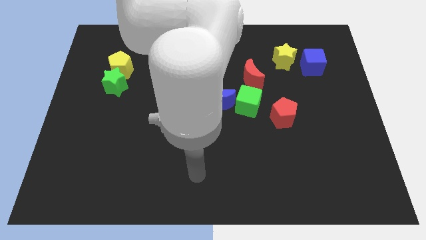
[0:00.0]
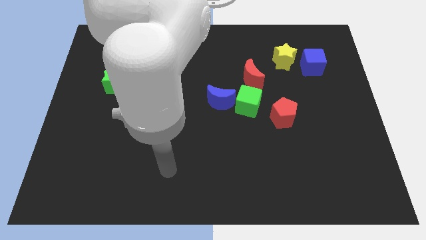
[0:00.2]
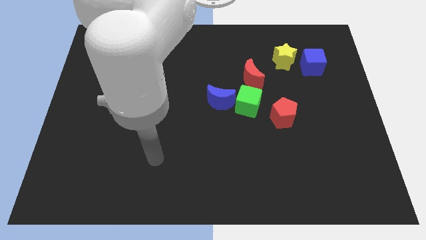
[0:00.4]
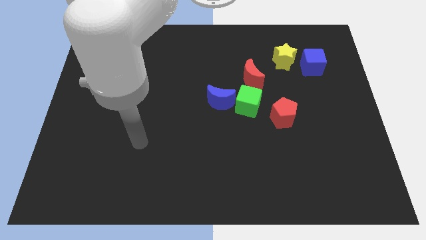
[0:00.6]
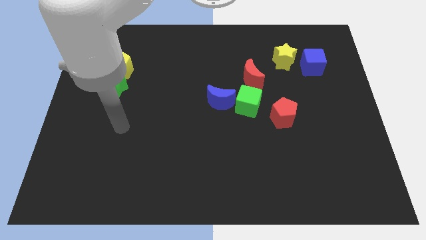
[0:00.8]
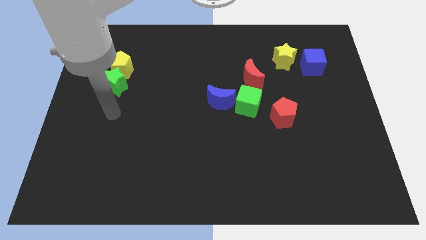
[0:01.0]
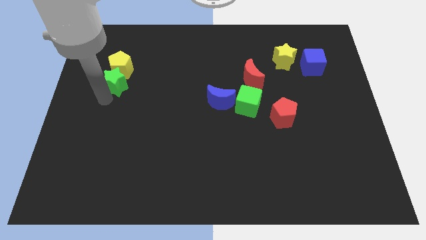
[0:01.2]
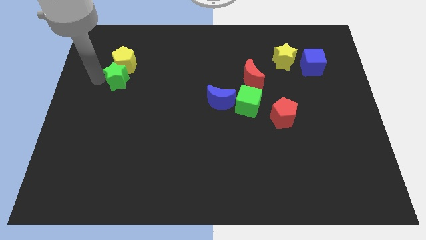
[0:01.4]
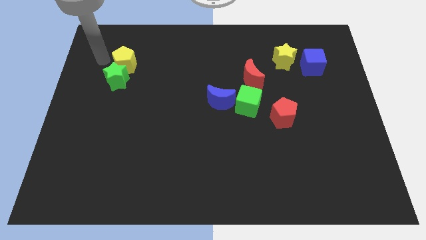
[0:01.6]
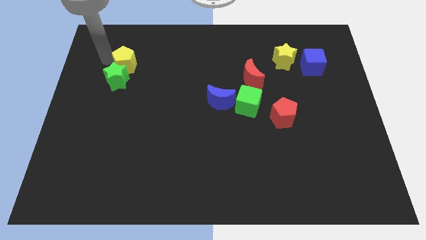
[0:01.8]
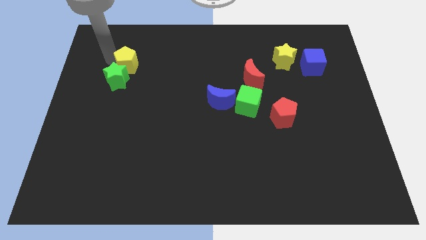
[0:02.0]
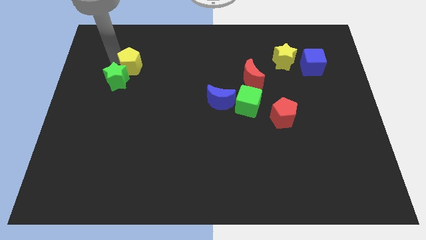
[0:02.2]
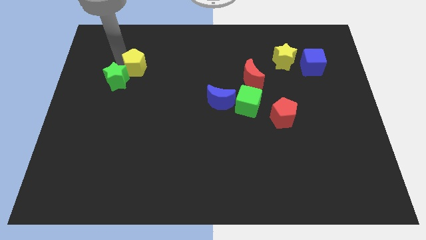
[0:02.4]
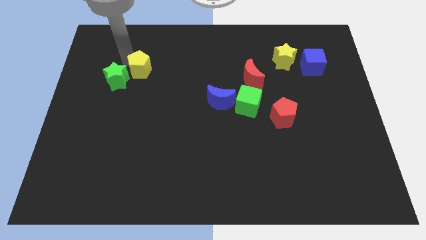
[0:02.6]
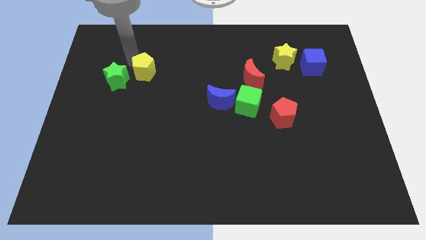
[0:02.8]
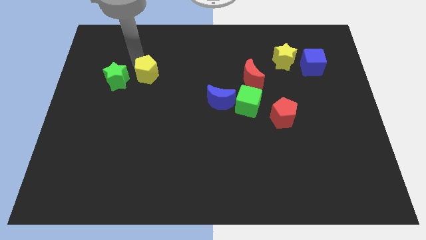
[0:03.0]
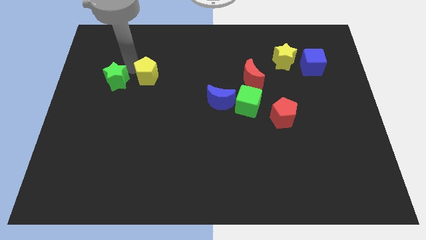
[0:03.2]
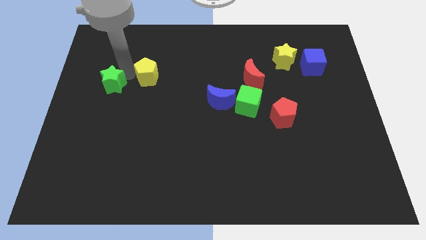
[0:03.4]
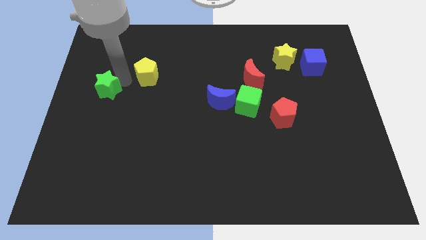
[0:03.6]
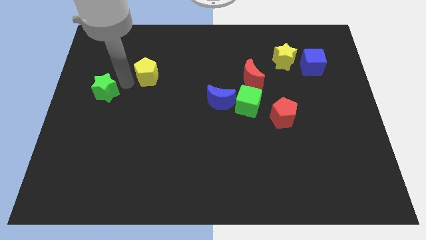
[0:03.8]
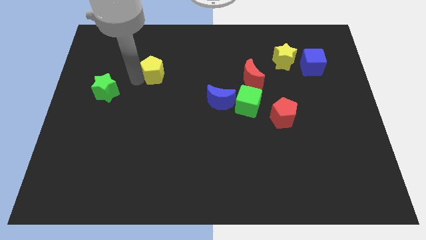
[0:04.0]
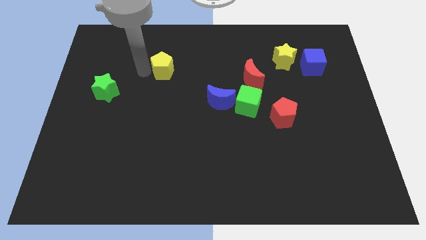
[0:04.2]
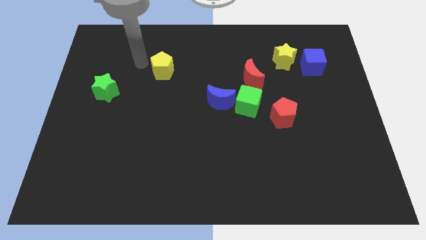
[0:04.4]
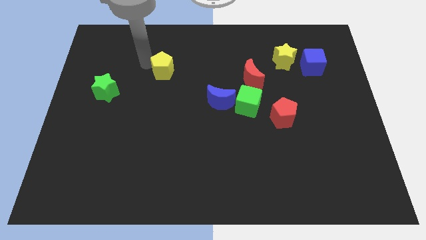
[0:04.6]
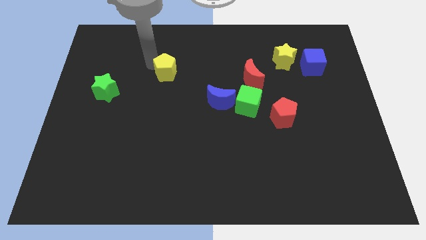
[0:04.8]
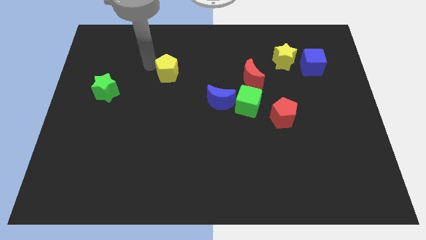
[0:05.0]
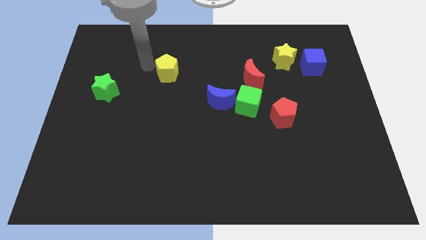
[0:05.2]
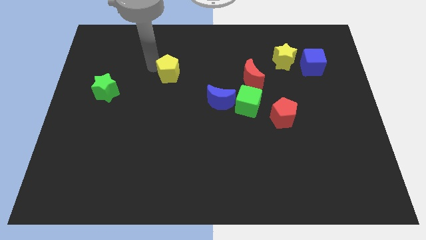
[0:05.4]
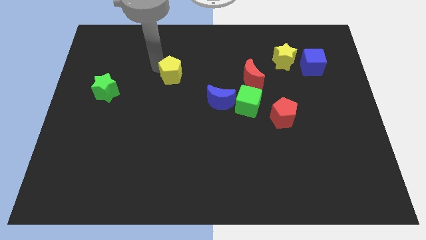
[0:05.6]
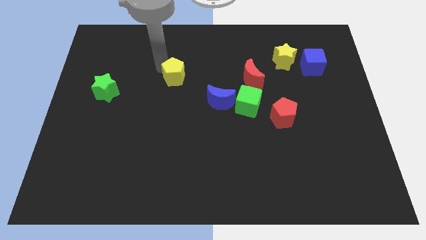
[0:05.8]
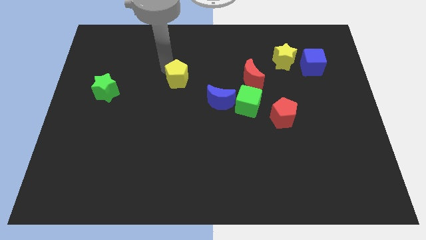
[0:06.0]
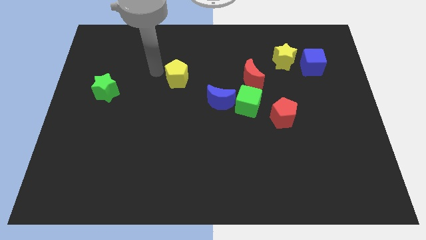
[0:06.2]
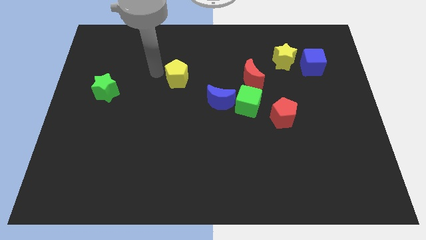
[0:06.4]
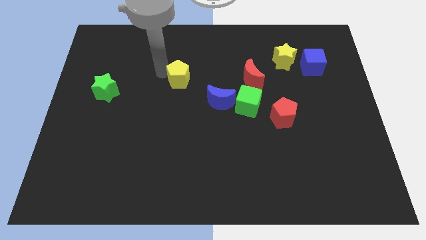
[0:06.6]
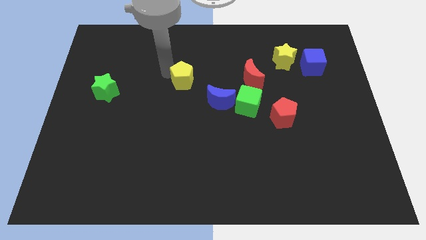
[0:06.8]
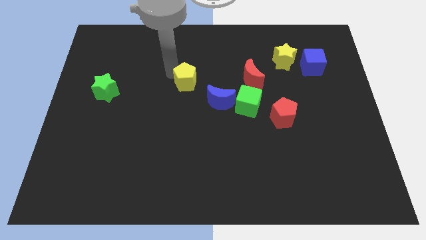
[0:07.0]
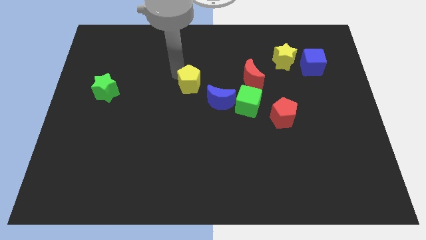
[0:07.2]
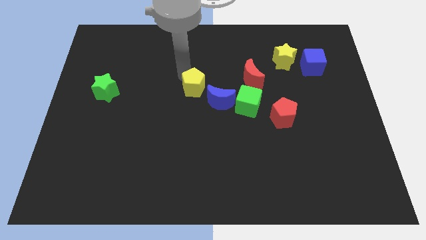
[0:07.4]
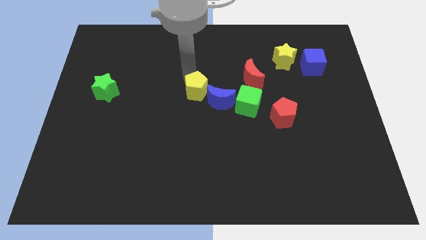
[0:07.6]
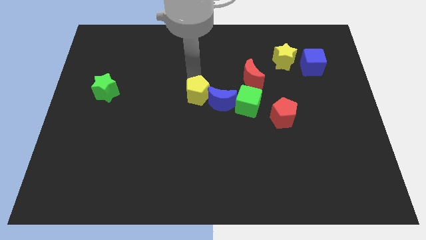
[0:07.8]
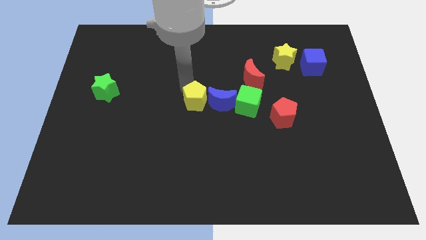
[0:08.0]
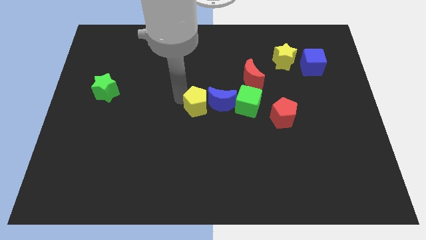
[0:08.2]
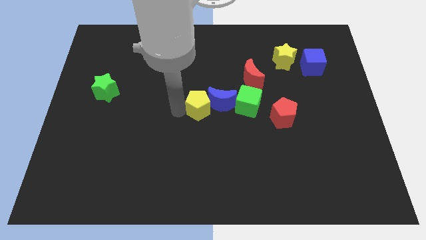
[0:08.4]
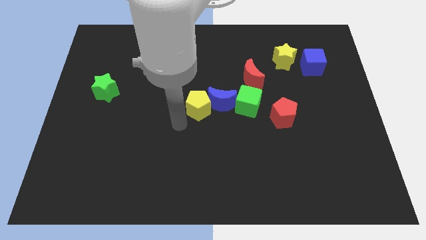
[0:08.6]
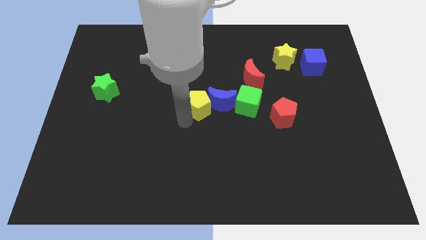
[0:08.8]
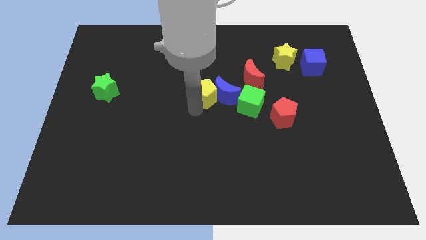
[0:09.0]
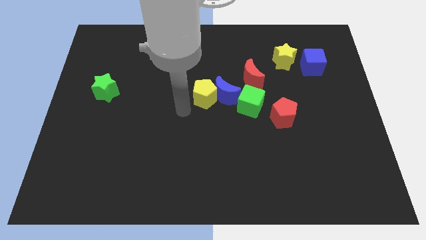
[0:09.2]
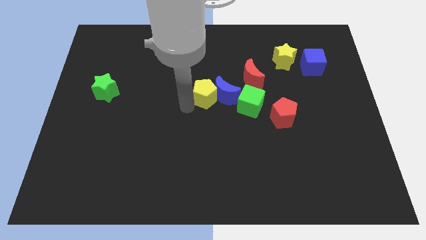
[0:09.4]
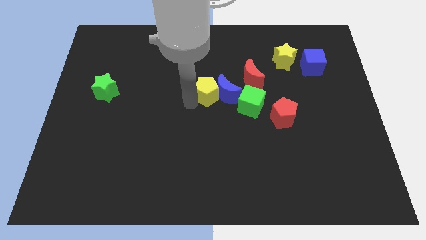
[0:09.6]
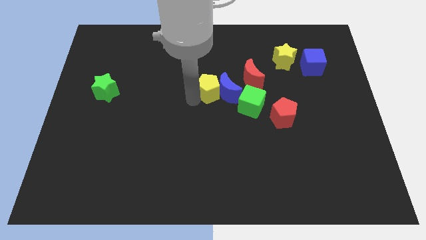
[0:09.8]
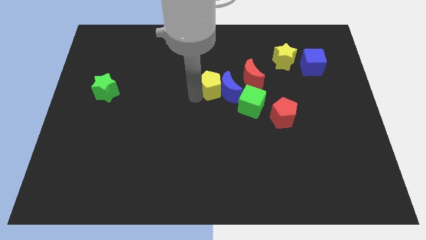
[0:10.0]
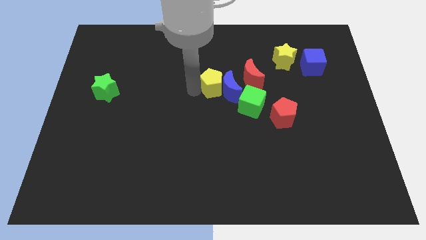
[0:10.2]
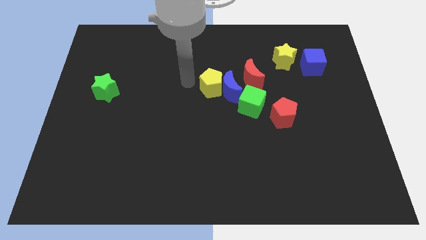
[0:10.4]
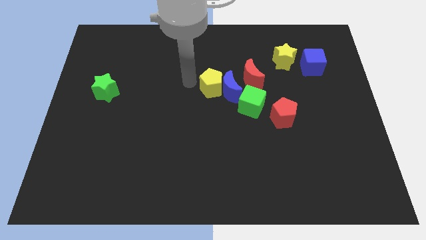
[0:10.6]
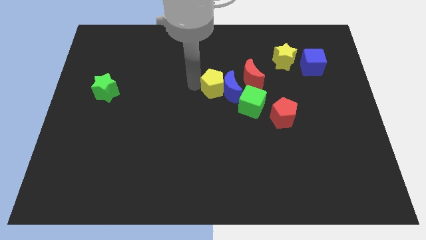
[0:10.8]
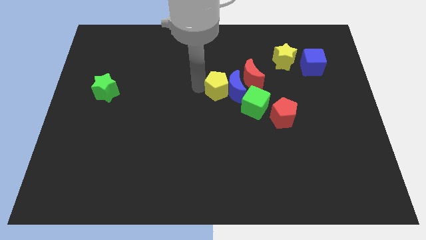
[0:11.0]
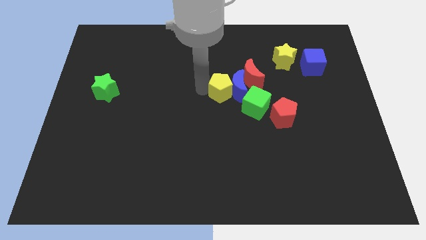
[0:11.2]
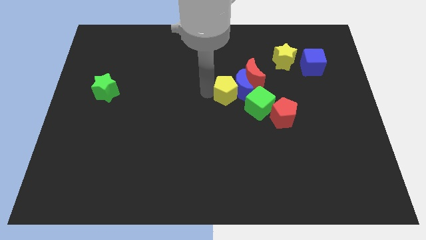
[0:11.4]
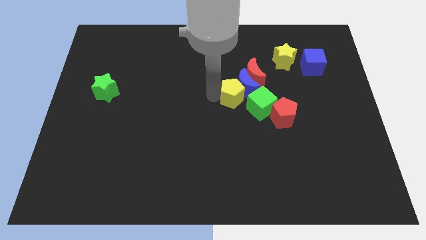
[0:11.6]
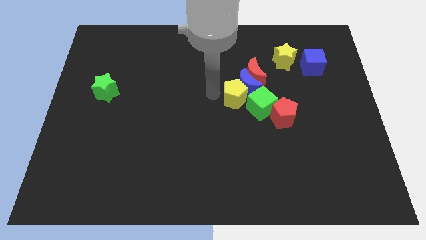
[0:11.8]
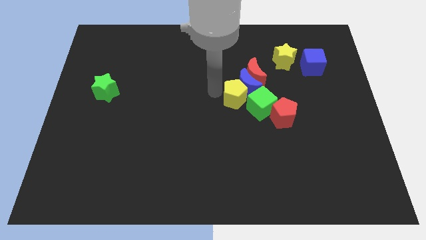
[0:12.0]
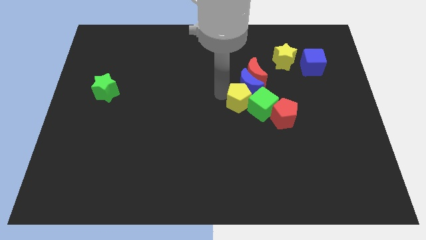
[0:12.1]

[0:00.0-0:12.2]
put the yellow pentagon towards the green cube

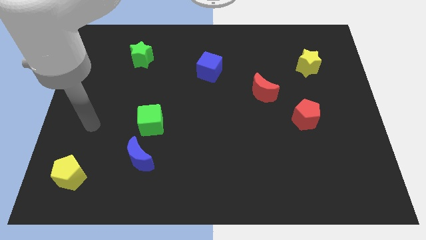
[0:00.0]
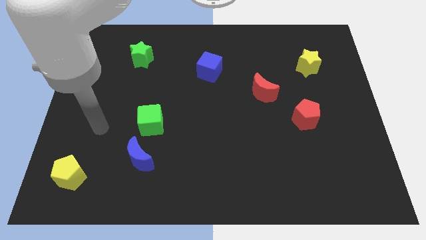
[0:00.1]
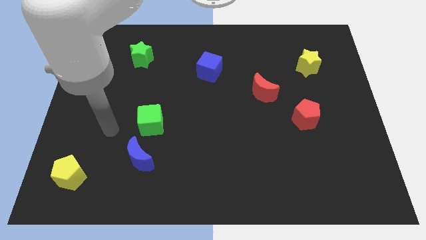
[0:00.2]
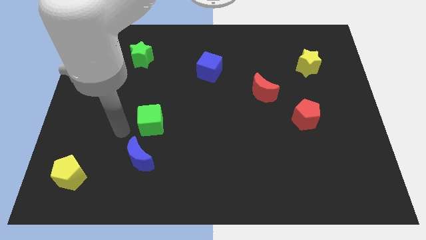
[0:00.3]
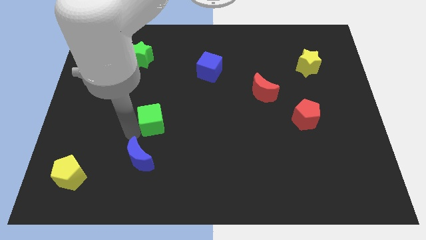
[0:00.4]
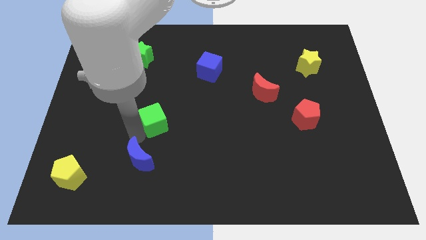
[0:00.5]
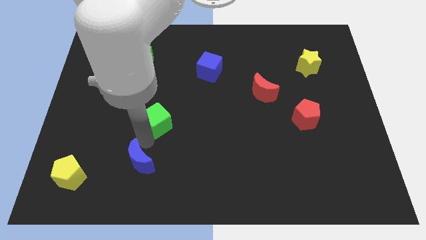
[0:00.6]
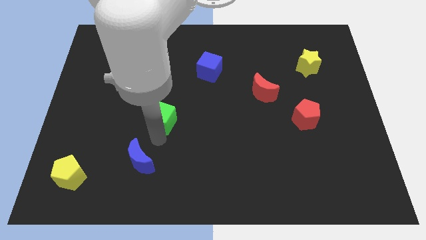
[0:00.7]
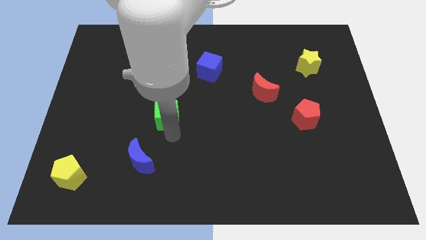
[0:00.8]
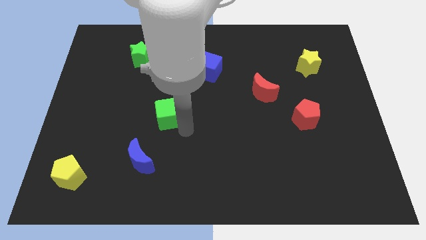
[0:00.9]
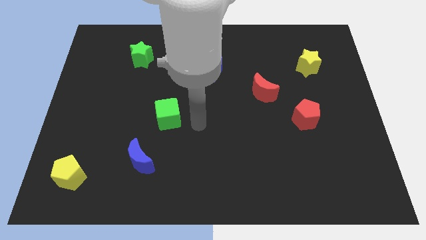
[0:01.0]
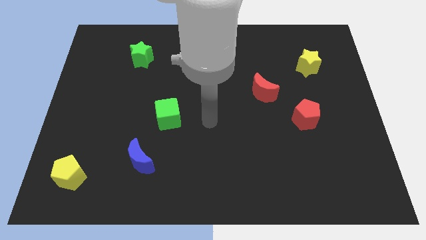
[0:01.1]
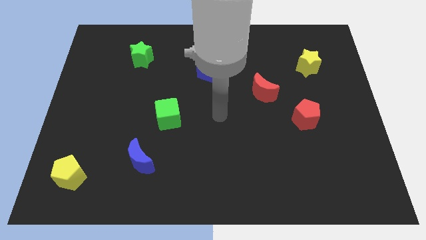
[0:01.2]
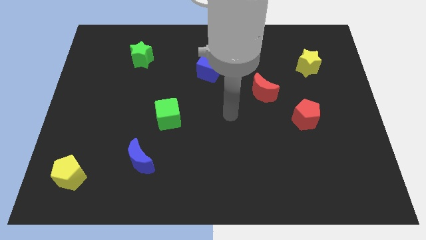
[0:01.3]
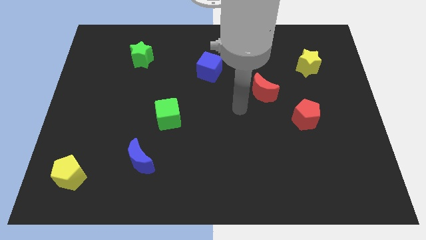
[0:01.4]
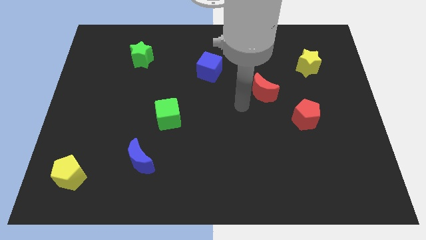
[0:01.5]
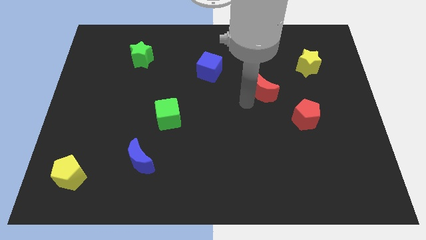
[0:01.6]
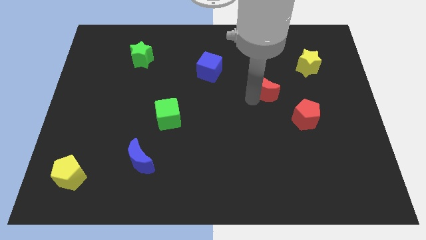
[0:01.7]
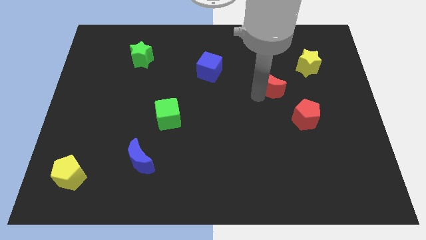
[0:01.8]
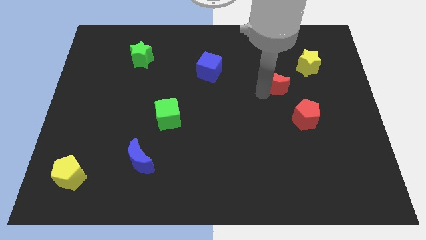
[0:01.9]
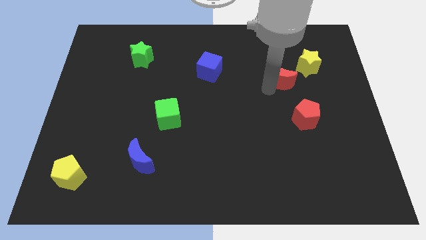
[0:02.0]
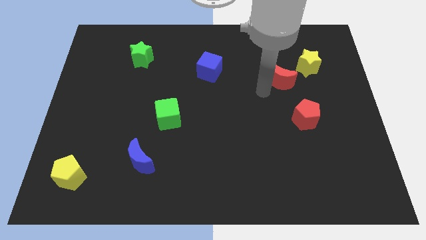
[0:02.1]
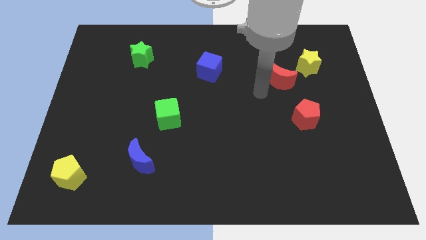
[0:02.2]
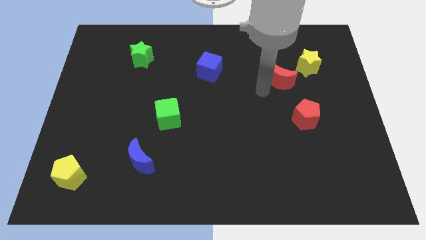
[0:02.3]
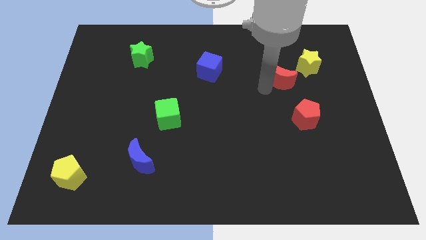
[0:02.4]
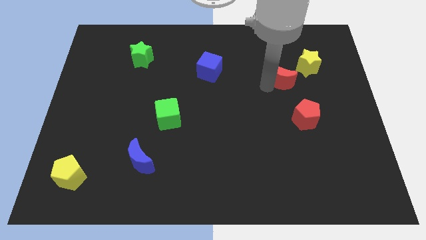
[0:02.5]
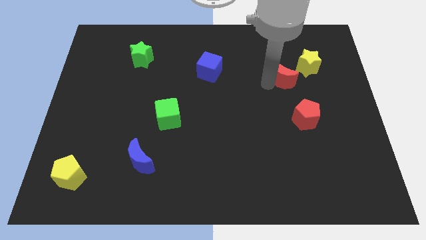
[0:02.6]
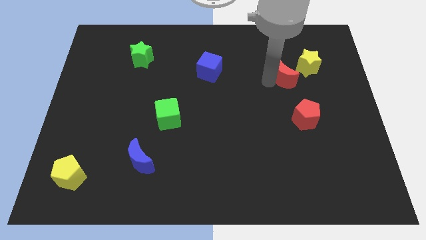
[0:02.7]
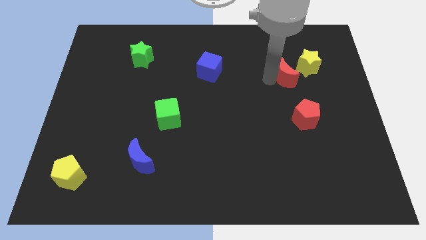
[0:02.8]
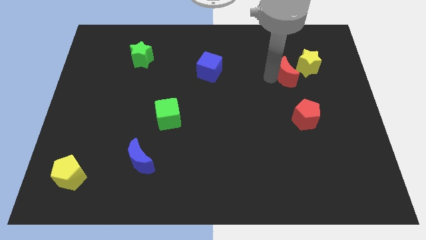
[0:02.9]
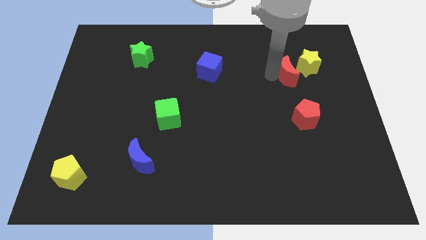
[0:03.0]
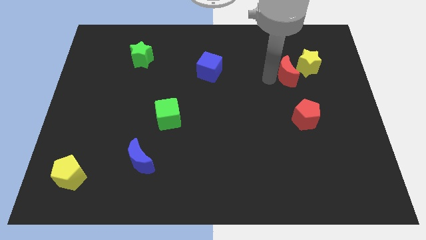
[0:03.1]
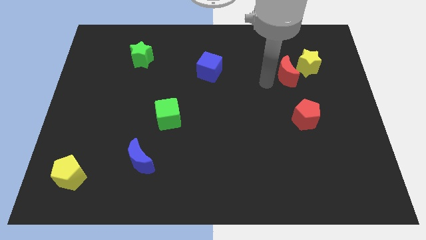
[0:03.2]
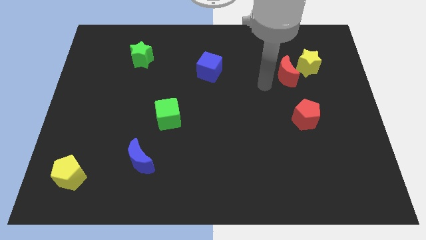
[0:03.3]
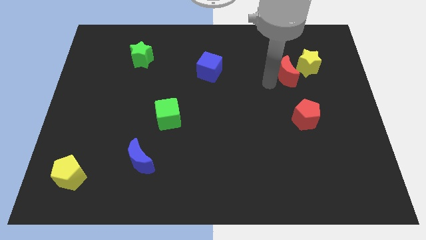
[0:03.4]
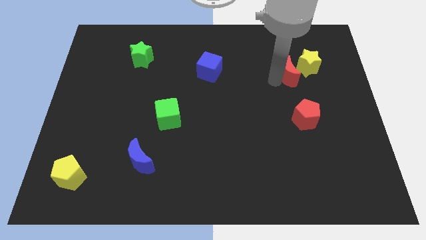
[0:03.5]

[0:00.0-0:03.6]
move the red moon towards the yellow star
